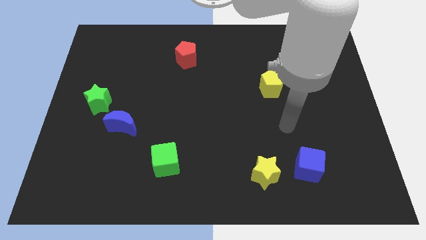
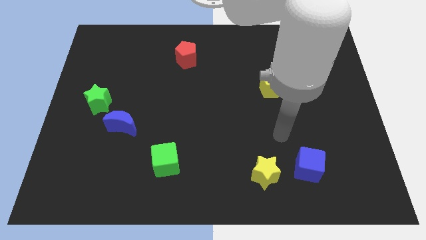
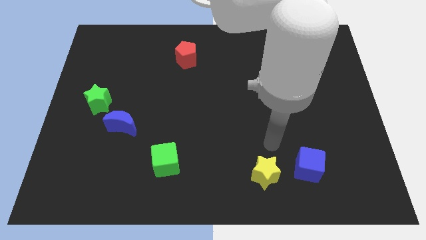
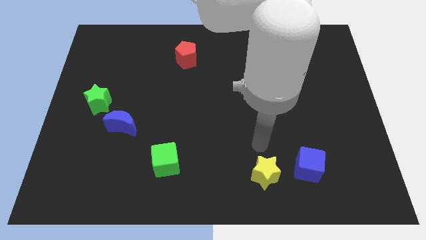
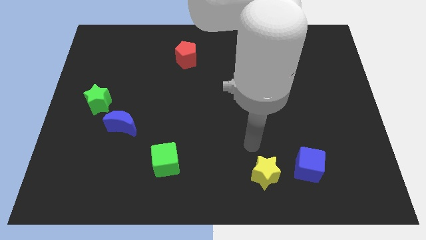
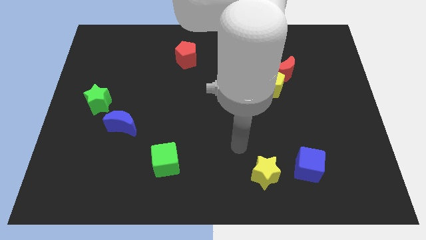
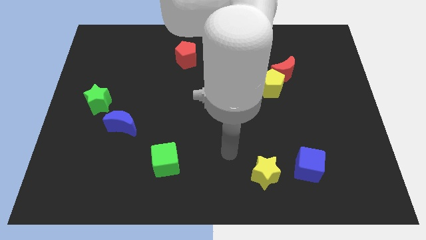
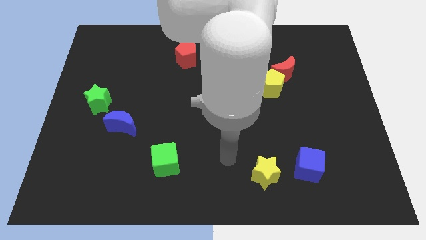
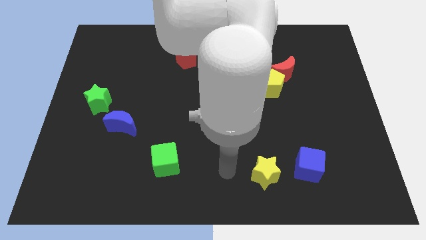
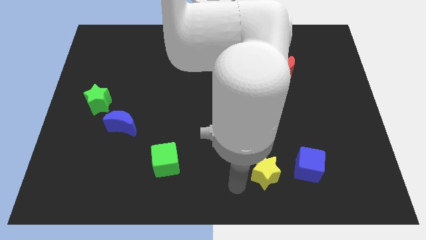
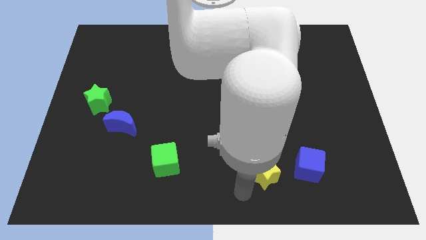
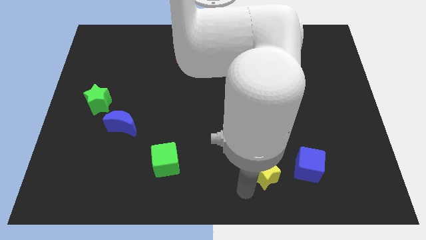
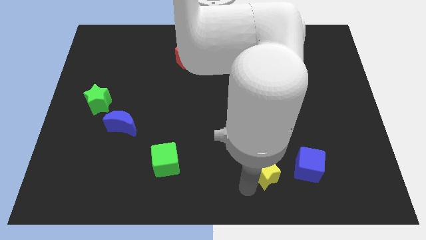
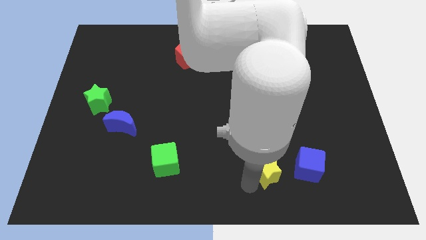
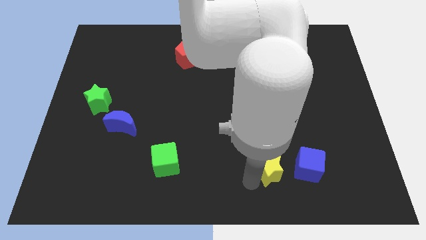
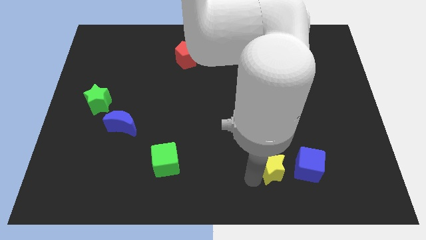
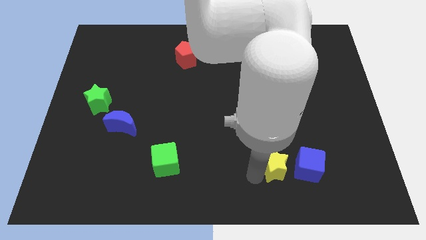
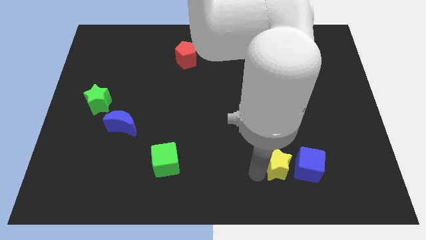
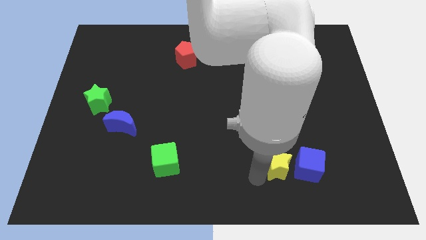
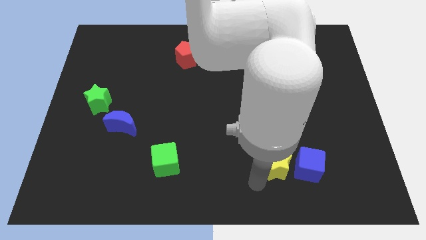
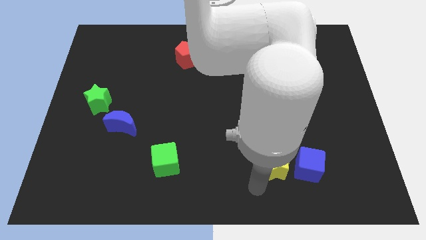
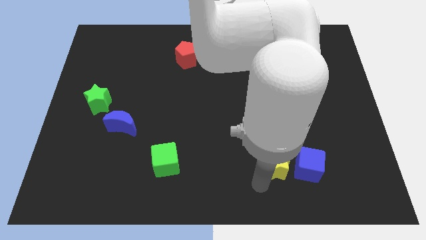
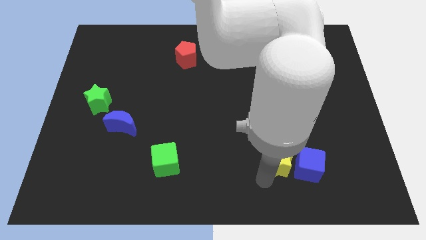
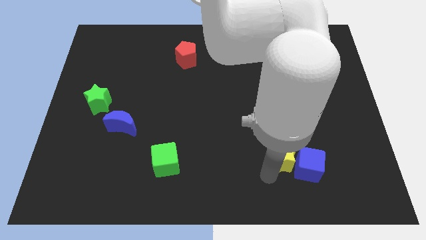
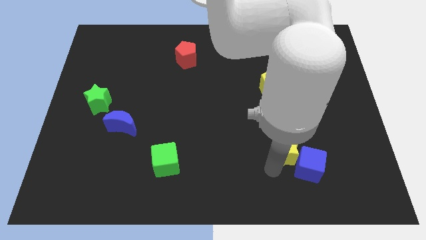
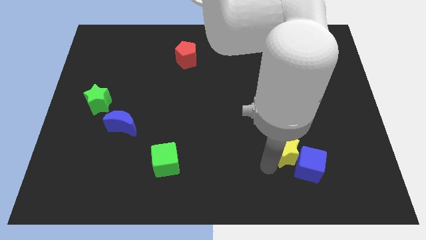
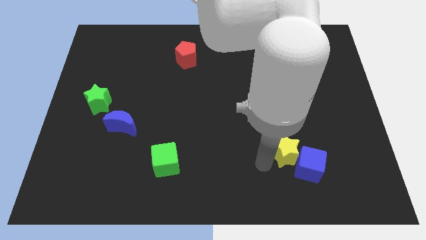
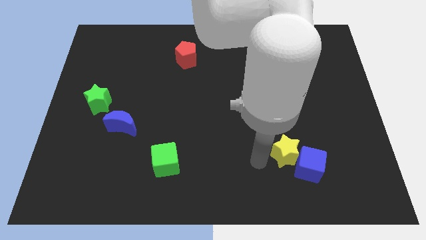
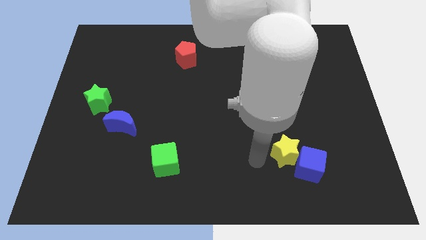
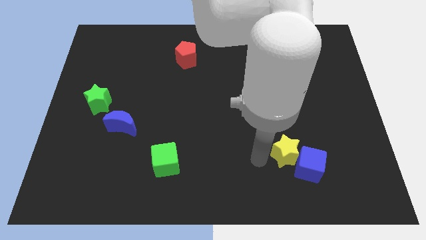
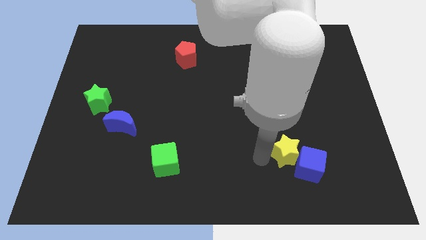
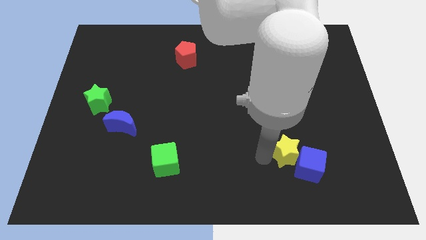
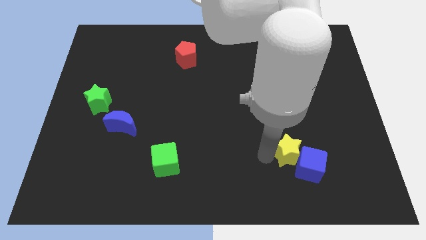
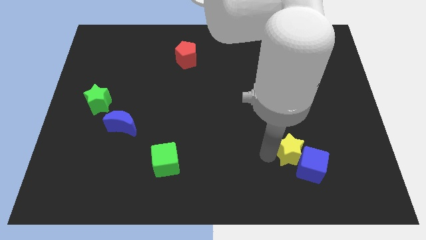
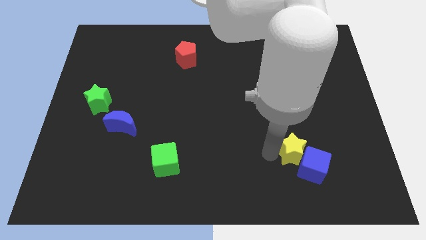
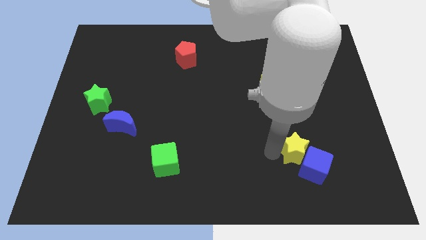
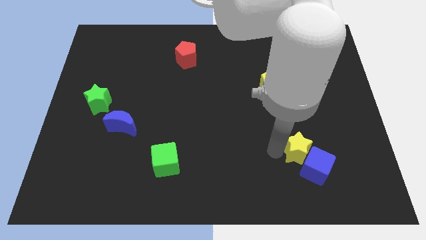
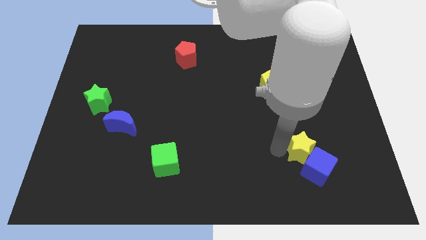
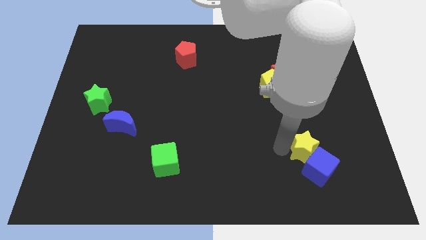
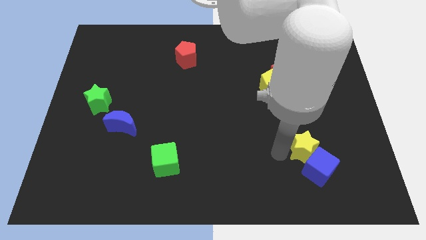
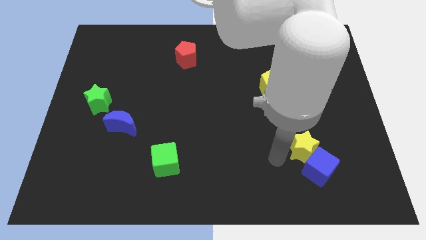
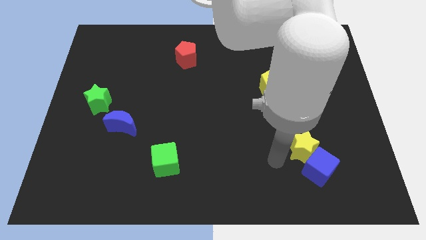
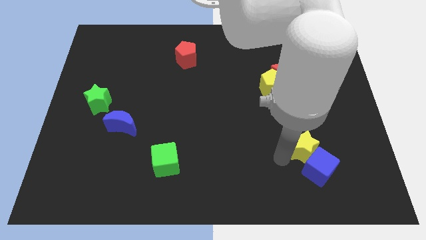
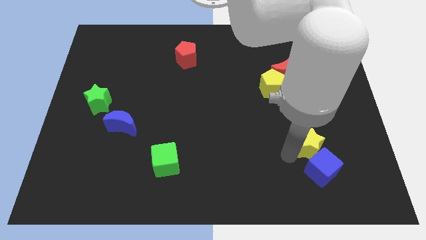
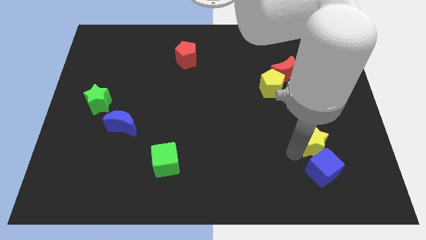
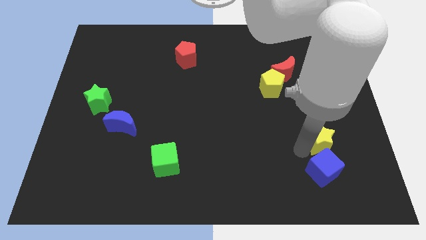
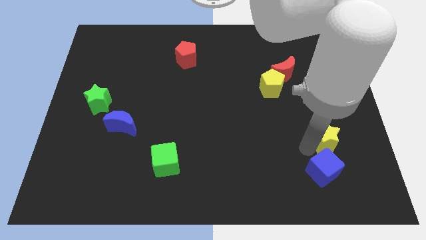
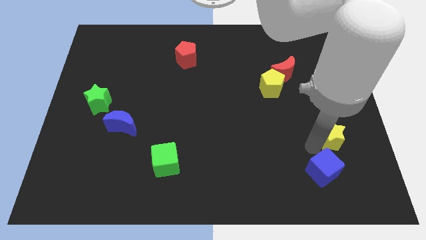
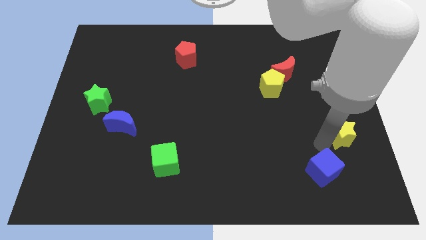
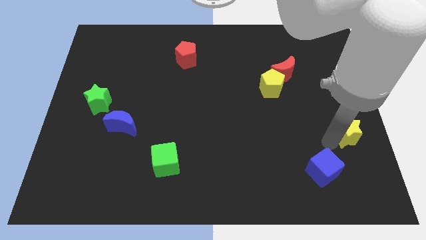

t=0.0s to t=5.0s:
put the yellow star to the right side of the board

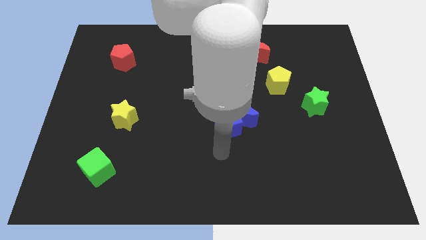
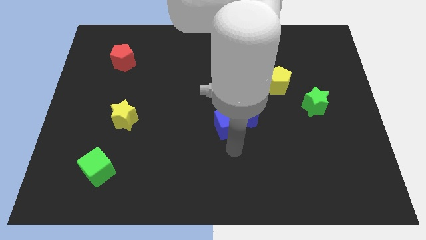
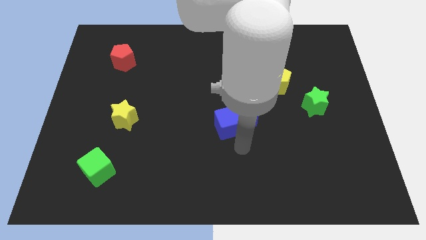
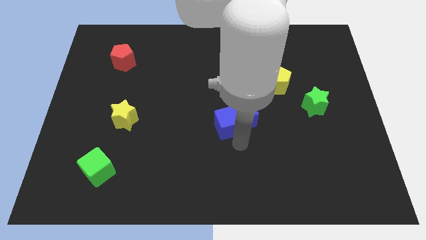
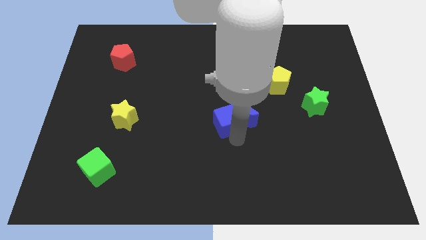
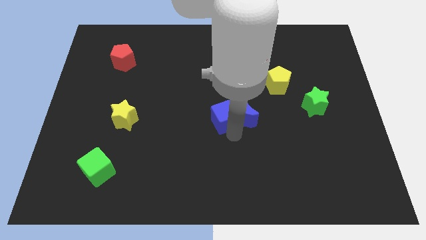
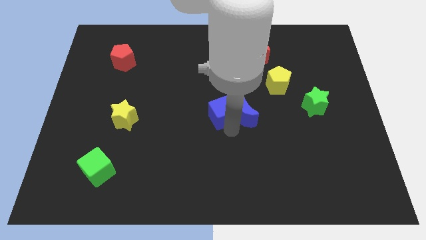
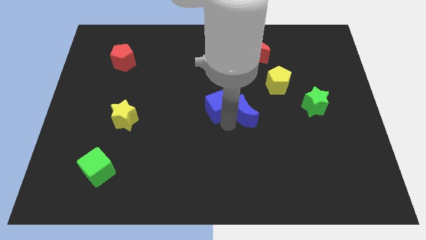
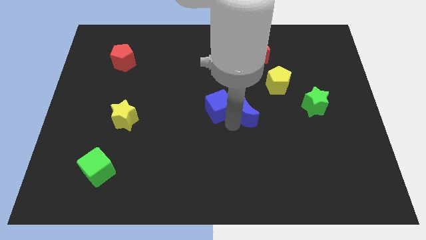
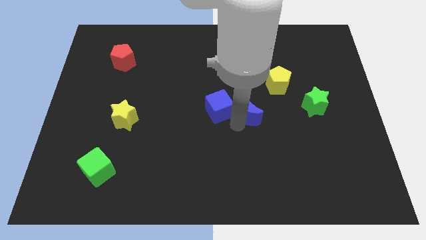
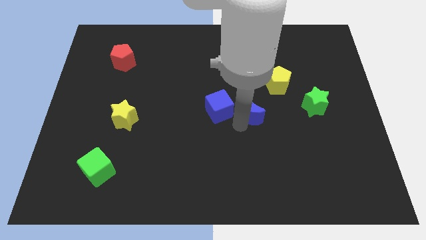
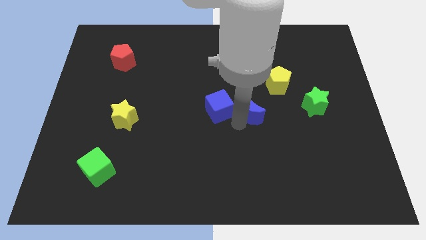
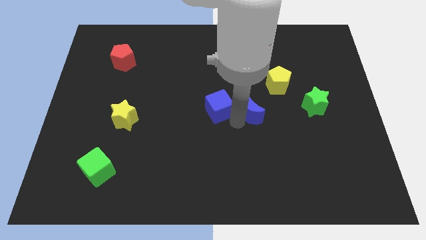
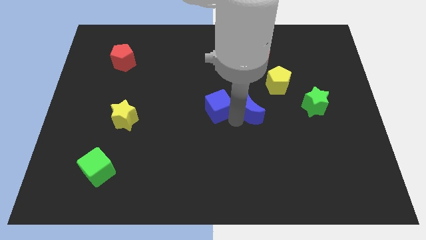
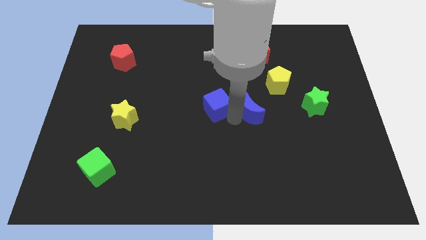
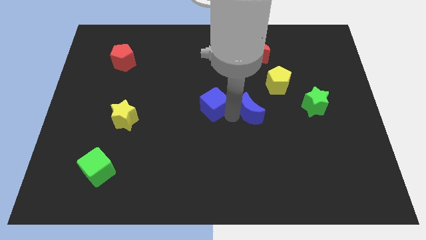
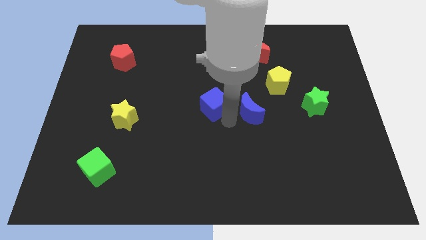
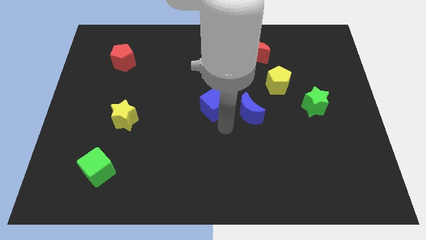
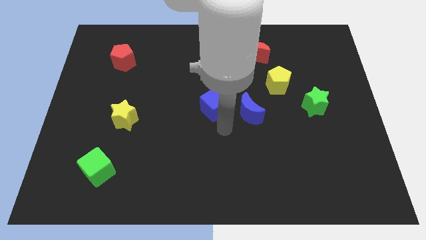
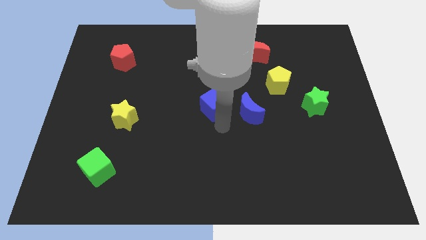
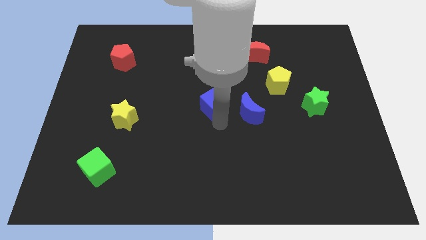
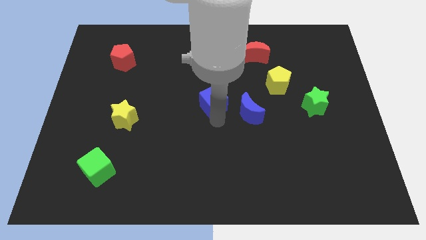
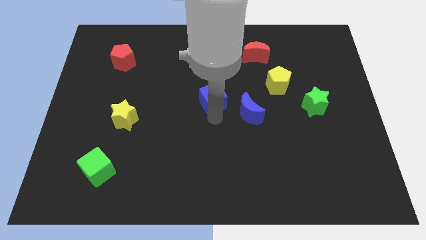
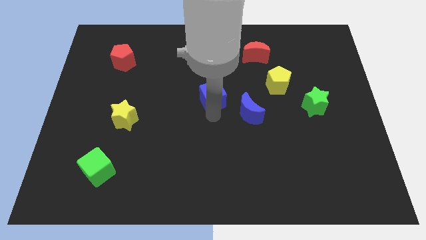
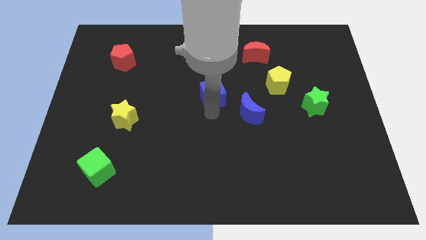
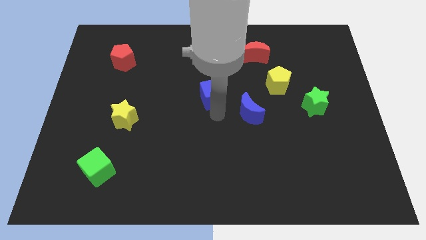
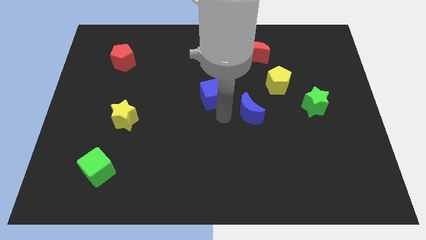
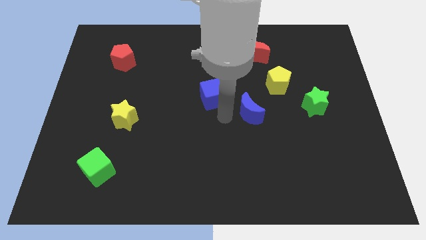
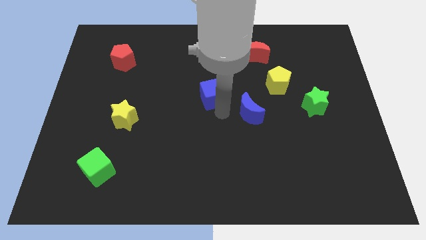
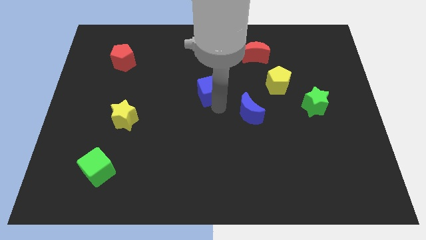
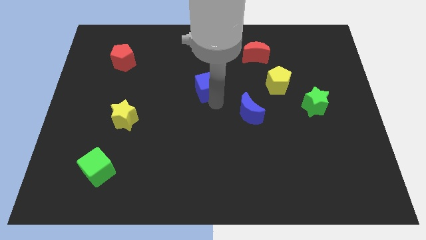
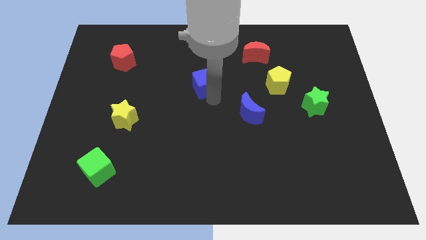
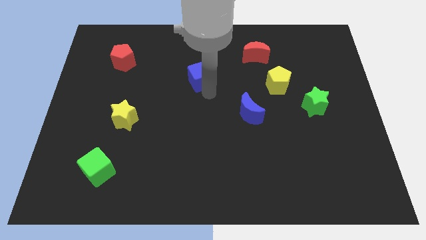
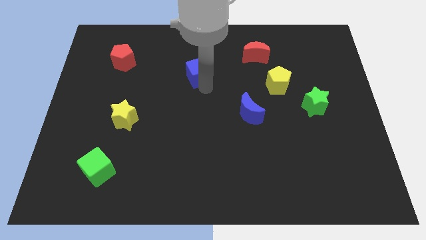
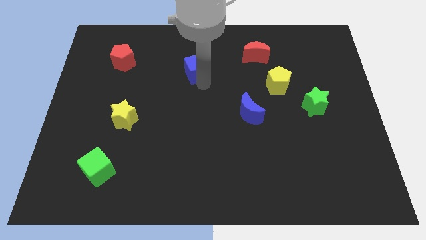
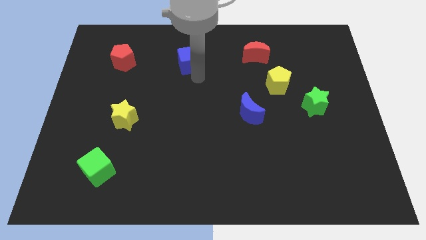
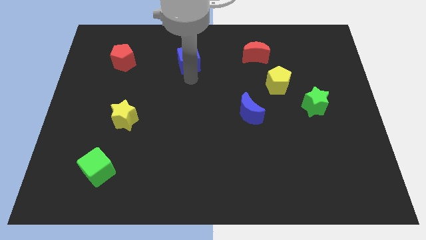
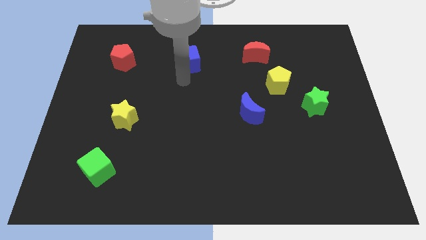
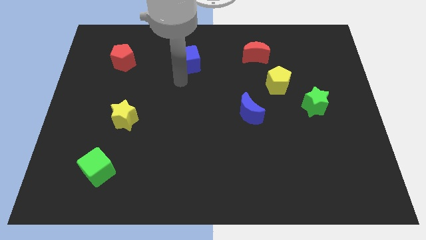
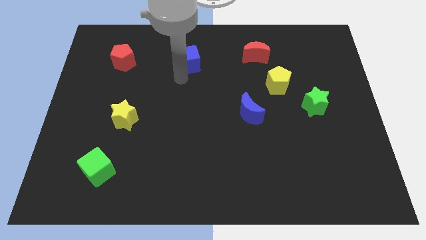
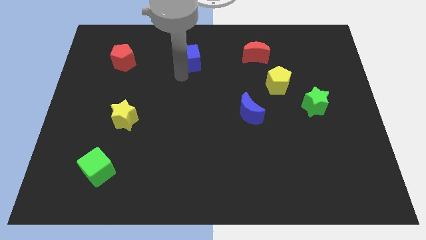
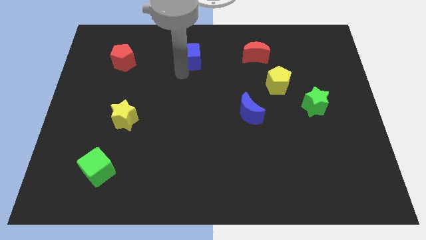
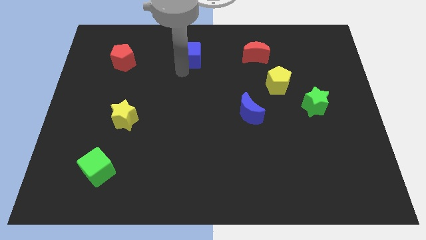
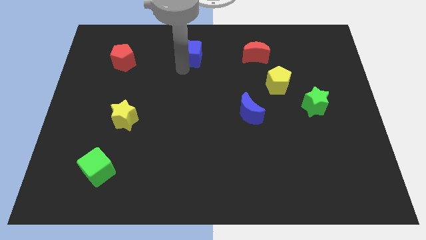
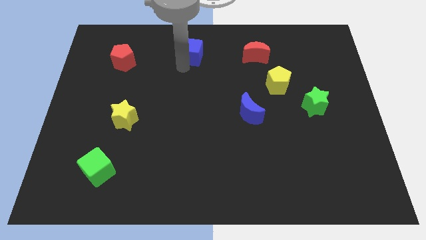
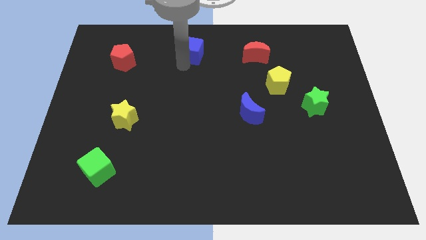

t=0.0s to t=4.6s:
push the blue cube to the top side
